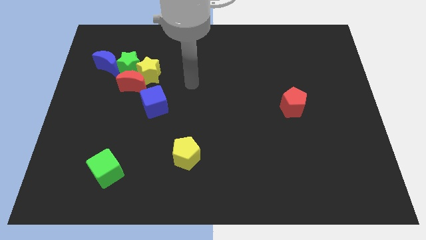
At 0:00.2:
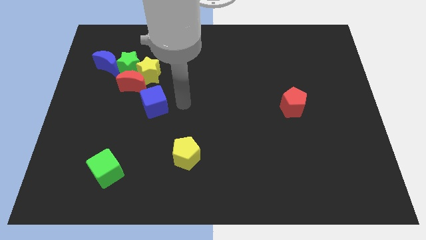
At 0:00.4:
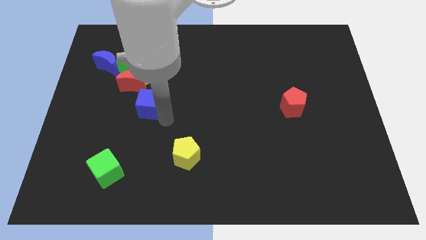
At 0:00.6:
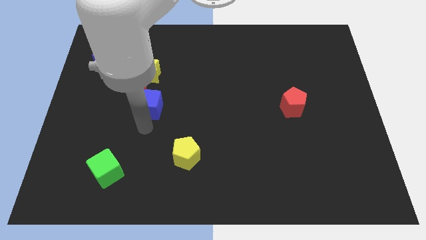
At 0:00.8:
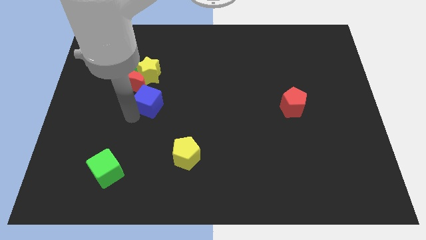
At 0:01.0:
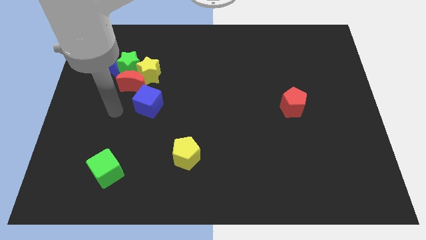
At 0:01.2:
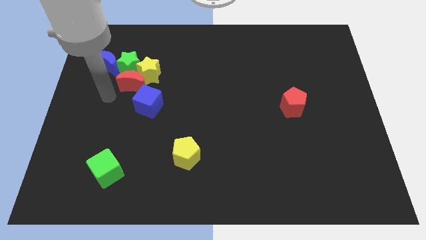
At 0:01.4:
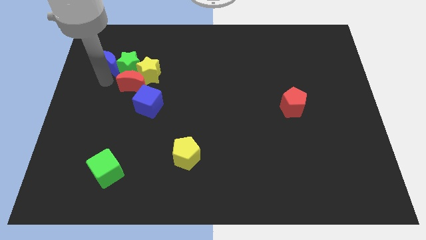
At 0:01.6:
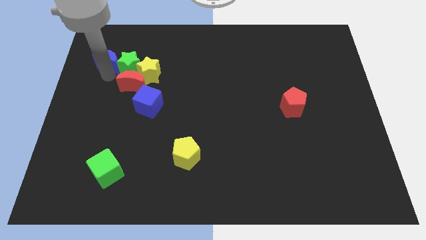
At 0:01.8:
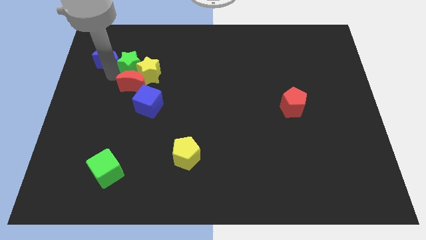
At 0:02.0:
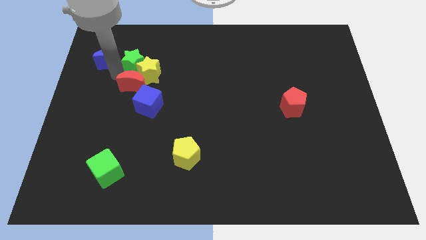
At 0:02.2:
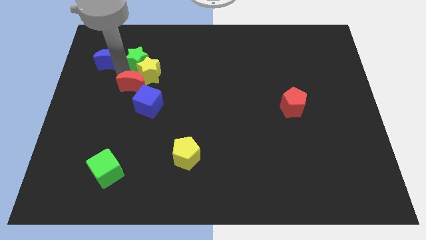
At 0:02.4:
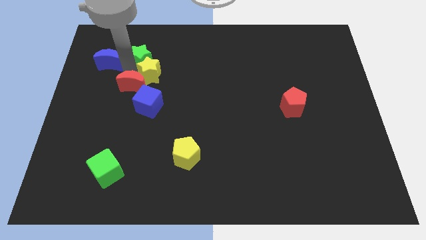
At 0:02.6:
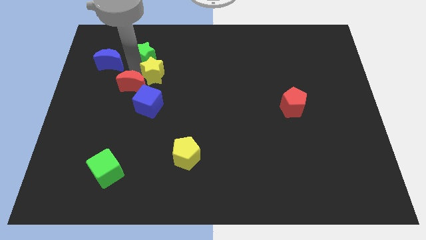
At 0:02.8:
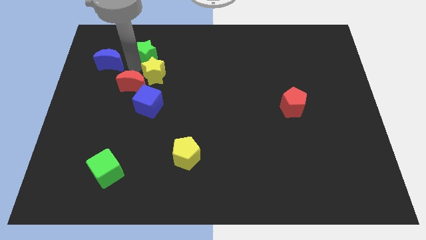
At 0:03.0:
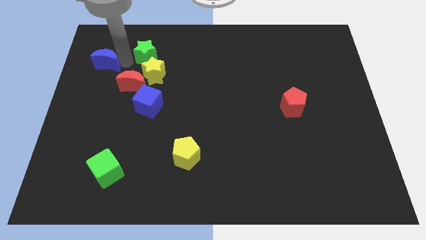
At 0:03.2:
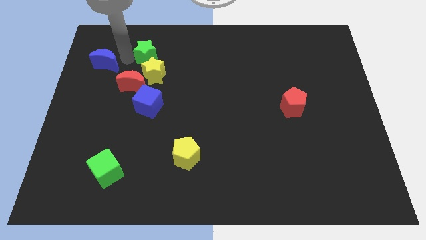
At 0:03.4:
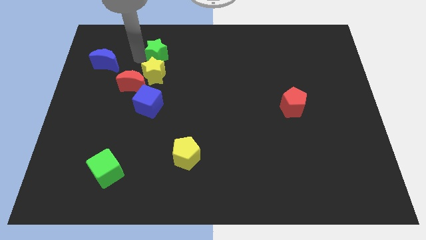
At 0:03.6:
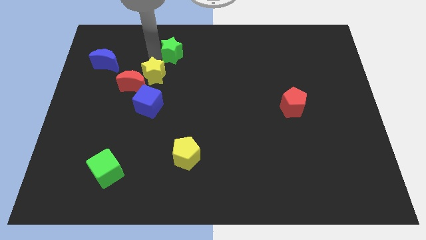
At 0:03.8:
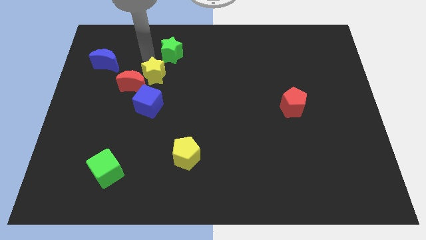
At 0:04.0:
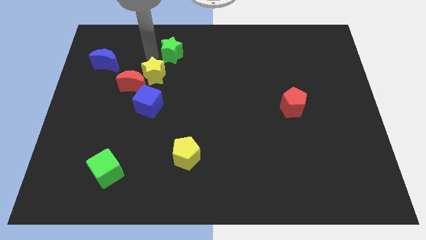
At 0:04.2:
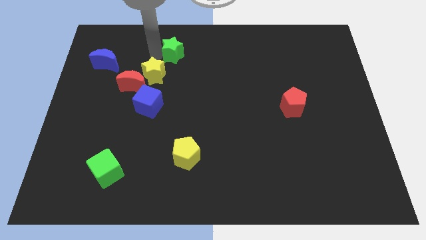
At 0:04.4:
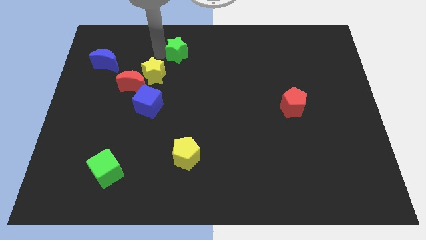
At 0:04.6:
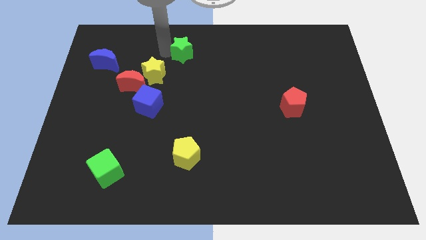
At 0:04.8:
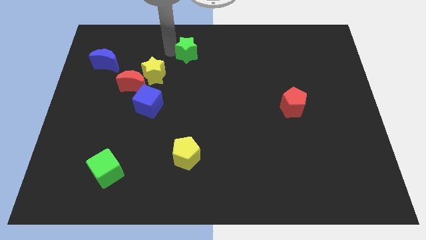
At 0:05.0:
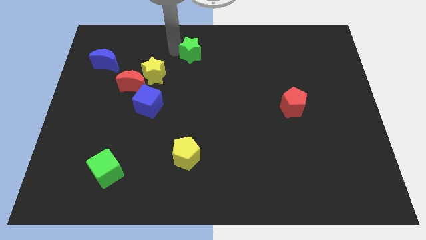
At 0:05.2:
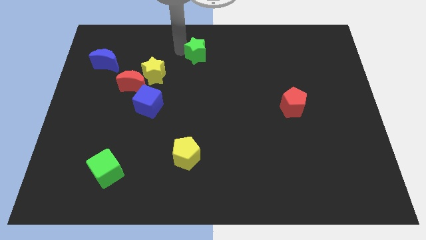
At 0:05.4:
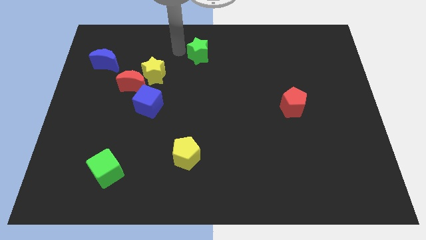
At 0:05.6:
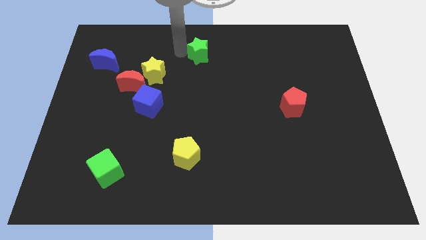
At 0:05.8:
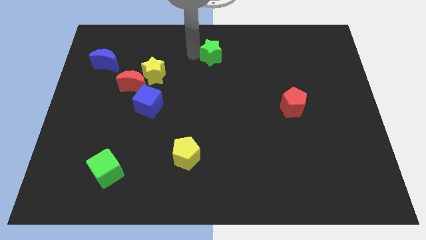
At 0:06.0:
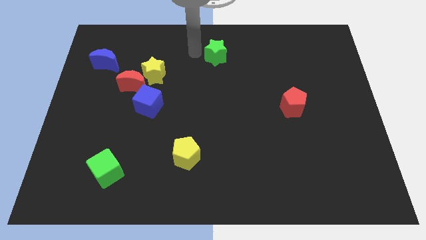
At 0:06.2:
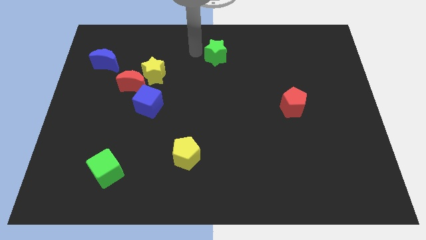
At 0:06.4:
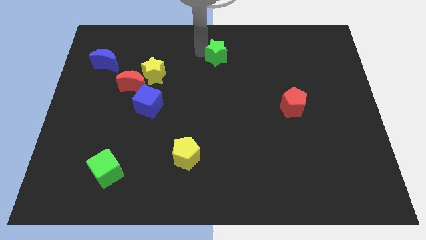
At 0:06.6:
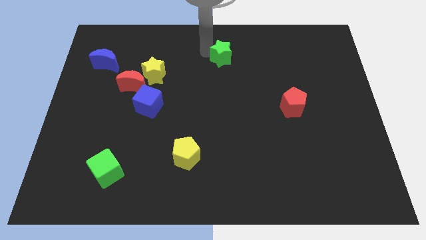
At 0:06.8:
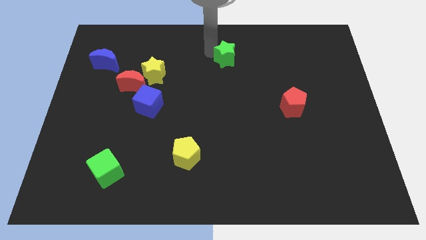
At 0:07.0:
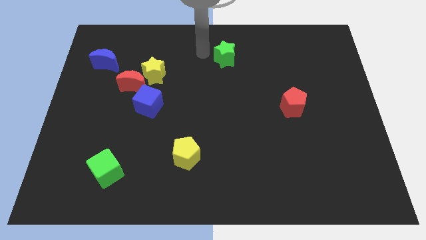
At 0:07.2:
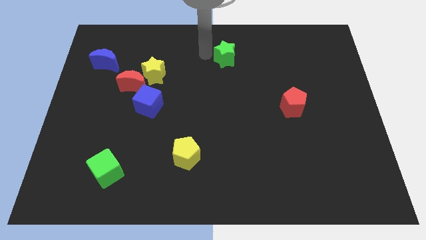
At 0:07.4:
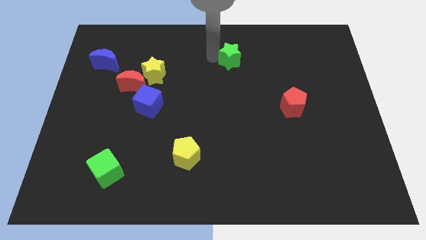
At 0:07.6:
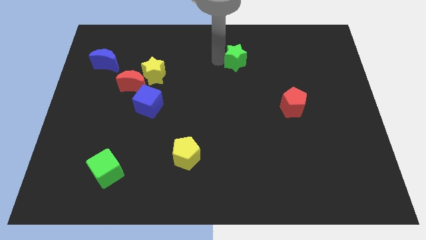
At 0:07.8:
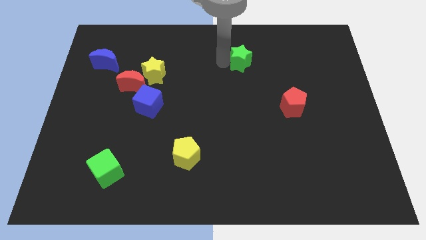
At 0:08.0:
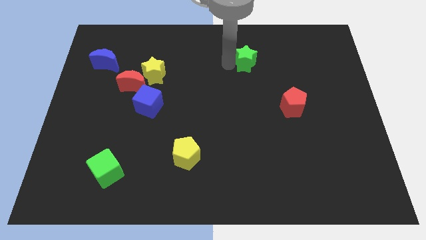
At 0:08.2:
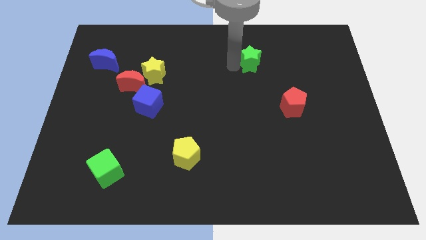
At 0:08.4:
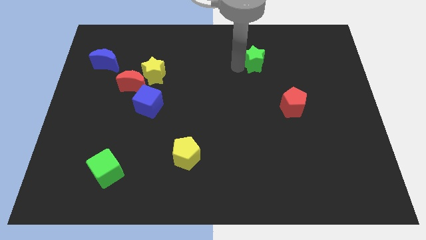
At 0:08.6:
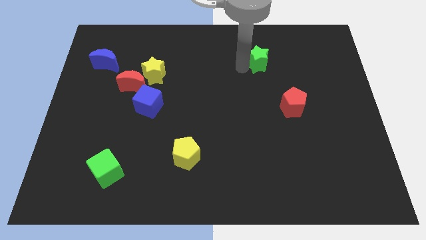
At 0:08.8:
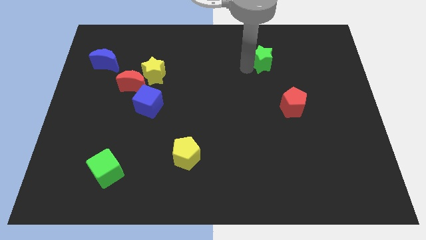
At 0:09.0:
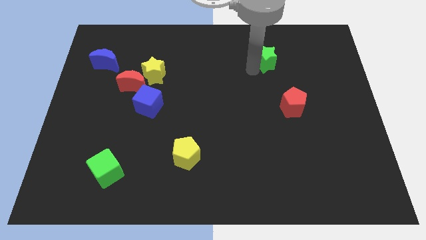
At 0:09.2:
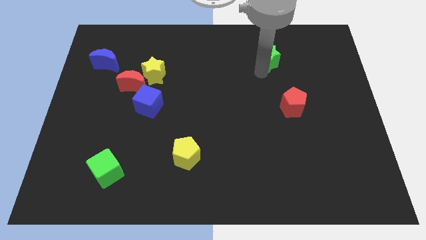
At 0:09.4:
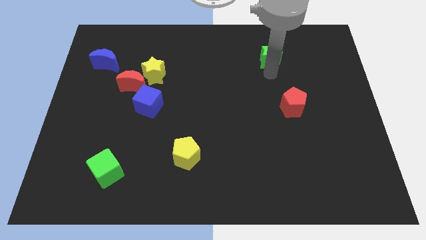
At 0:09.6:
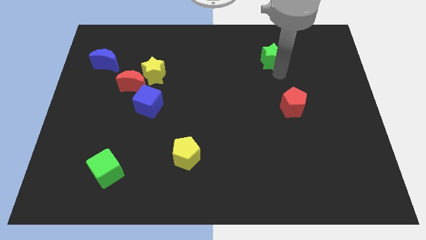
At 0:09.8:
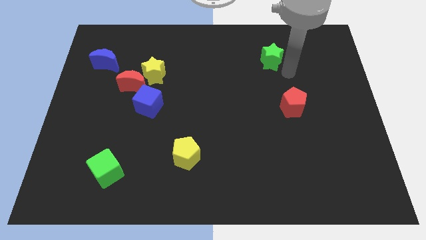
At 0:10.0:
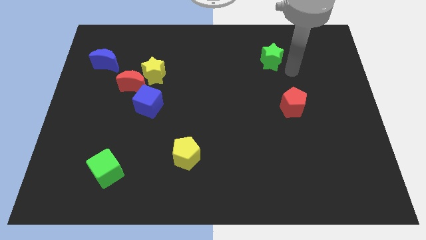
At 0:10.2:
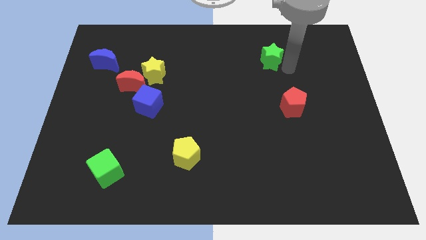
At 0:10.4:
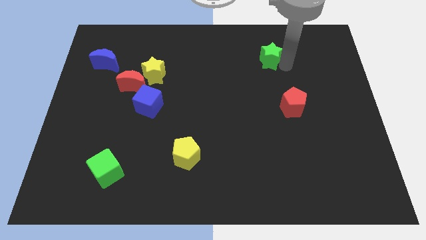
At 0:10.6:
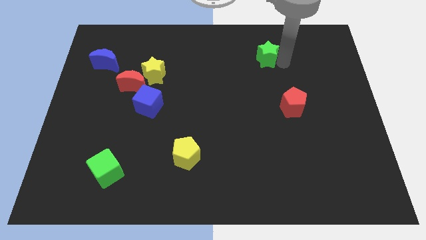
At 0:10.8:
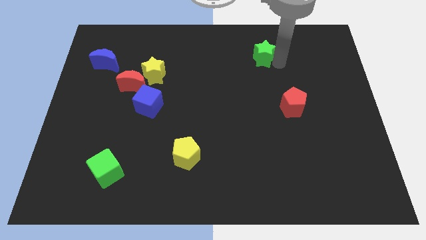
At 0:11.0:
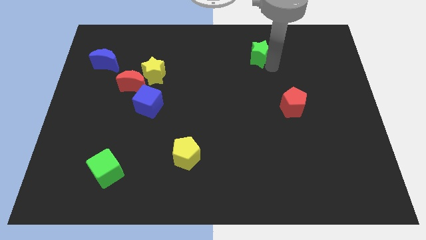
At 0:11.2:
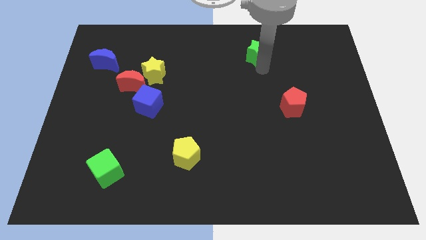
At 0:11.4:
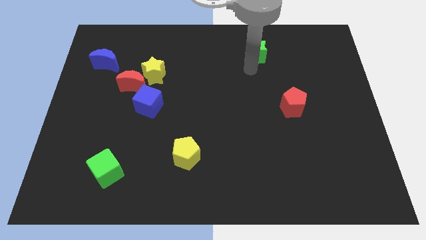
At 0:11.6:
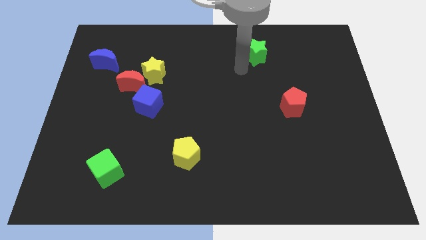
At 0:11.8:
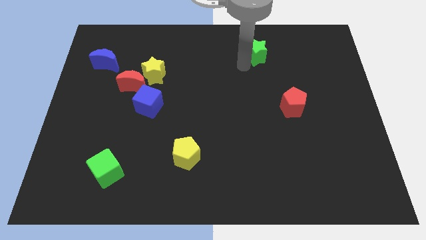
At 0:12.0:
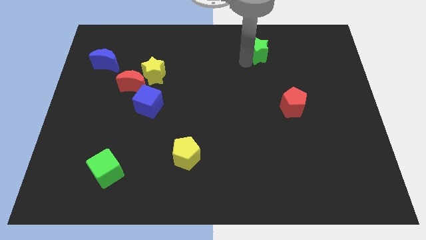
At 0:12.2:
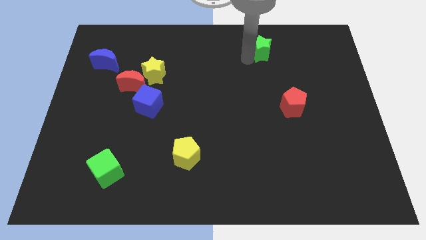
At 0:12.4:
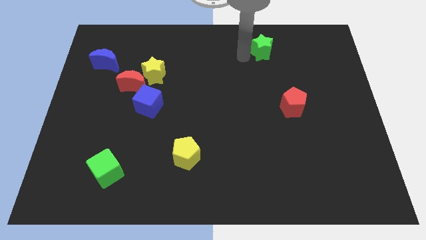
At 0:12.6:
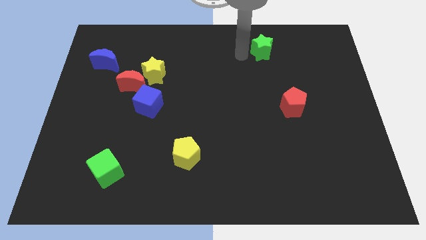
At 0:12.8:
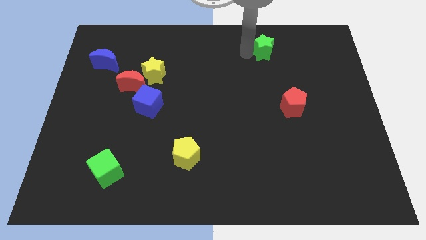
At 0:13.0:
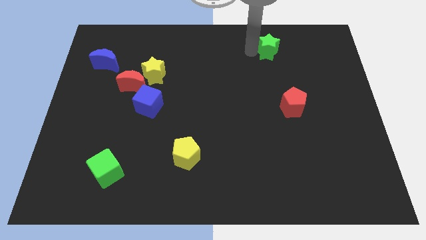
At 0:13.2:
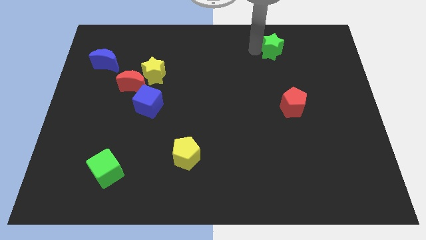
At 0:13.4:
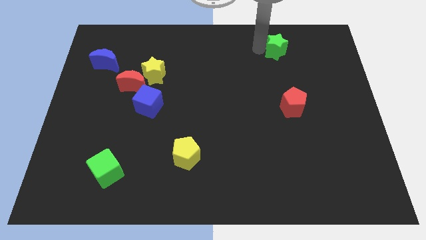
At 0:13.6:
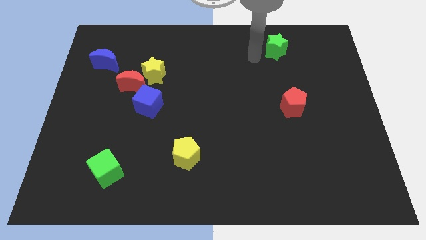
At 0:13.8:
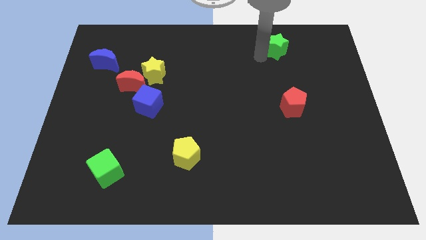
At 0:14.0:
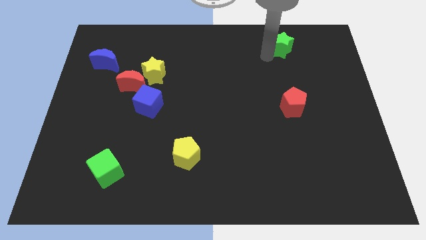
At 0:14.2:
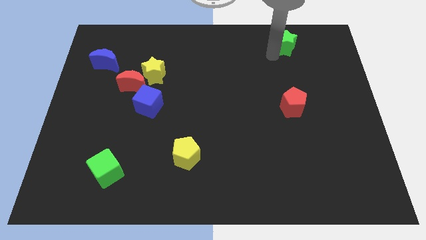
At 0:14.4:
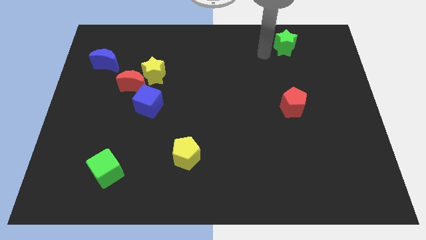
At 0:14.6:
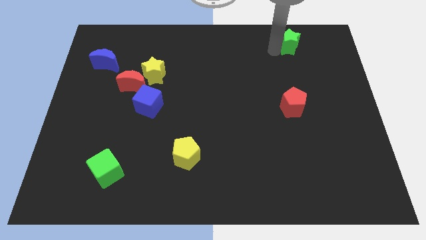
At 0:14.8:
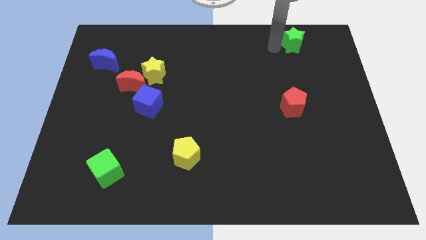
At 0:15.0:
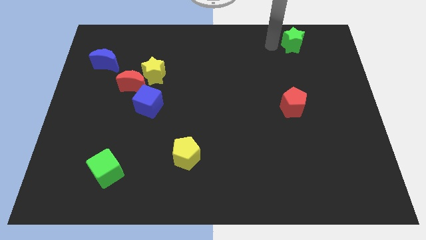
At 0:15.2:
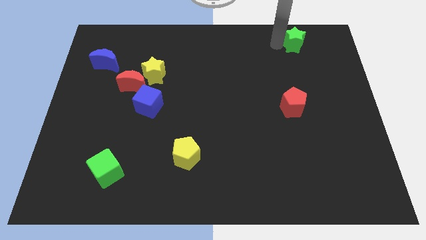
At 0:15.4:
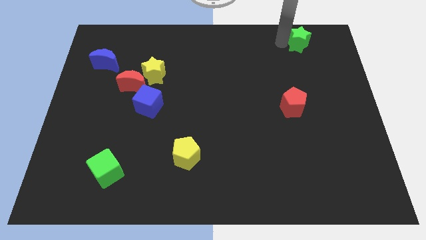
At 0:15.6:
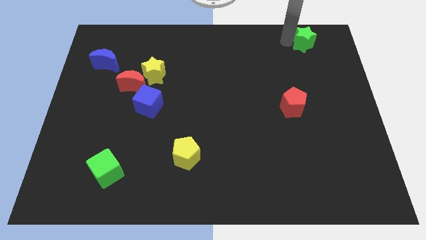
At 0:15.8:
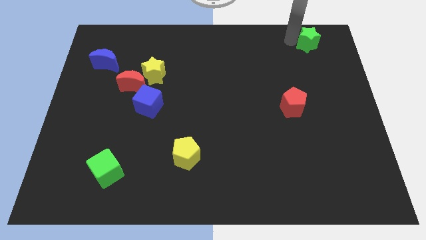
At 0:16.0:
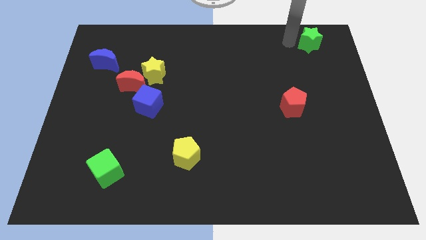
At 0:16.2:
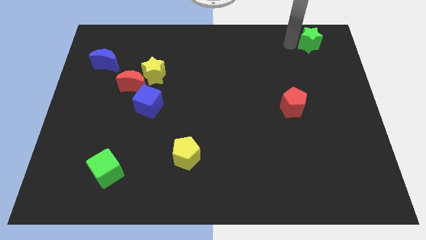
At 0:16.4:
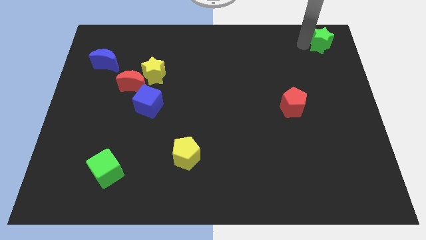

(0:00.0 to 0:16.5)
slide the green star to the upper right corner
